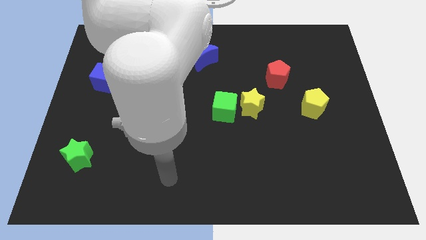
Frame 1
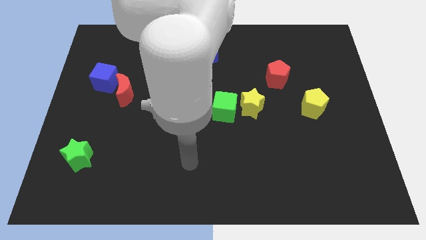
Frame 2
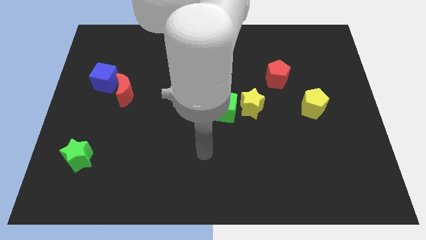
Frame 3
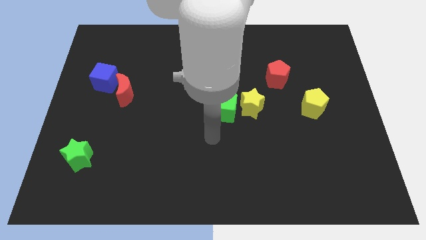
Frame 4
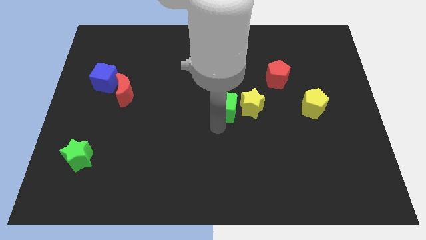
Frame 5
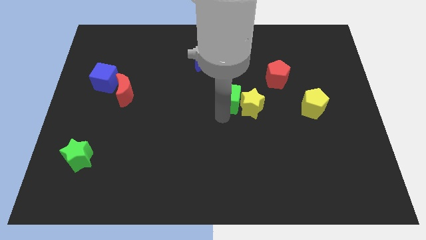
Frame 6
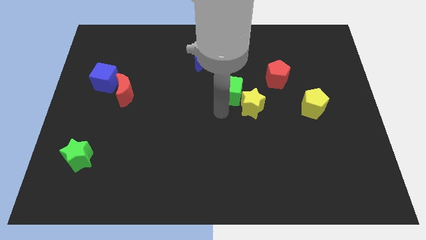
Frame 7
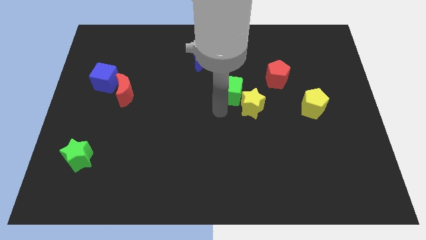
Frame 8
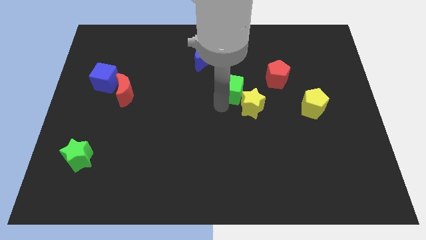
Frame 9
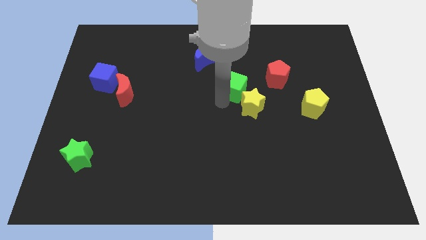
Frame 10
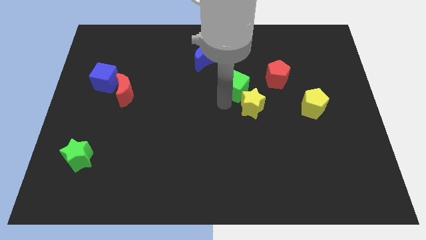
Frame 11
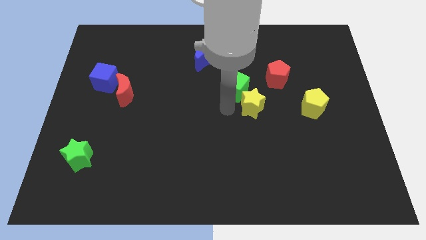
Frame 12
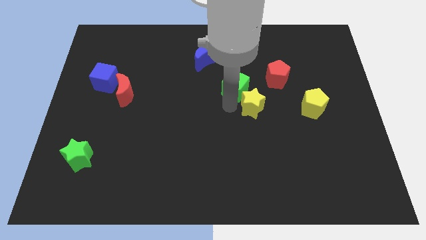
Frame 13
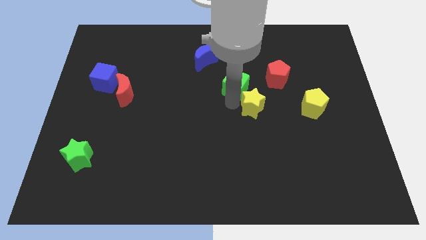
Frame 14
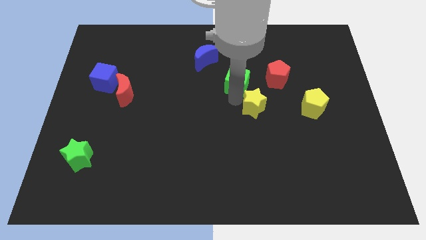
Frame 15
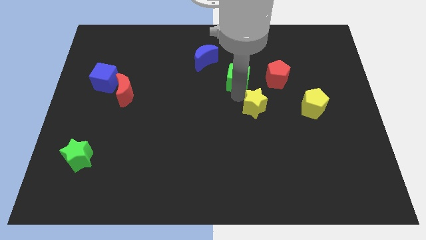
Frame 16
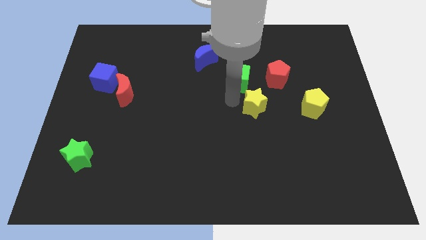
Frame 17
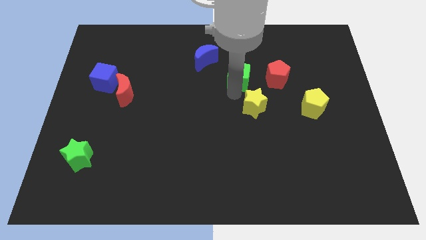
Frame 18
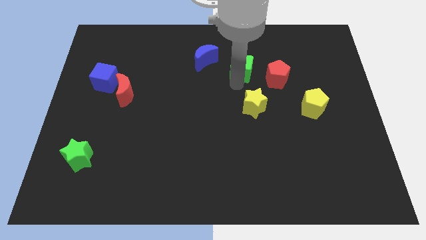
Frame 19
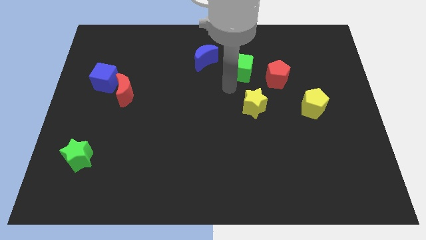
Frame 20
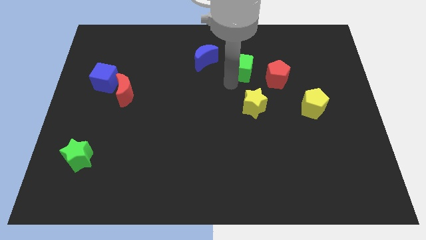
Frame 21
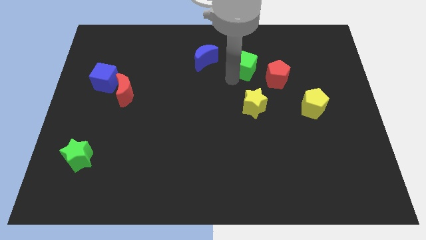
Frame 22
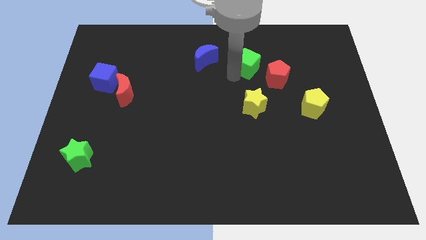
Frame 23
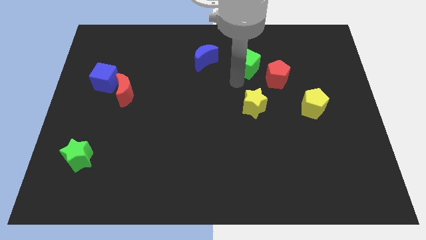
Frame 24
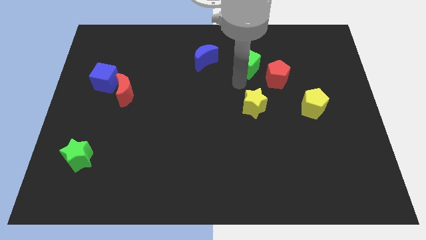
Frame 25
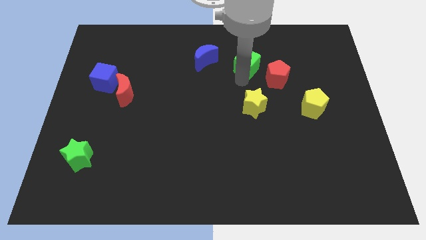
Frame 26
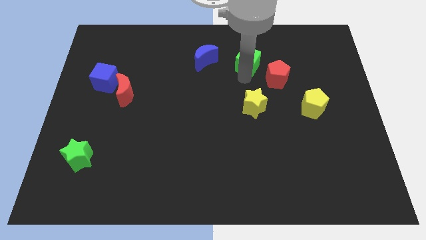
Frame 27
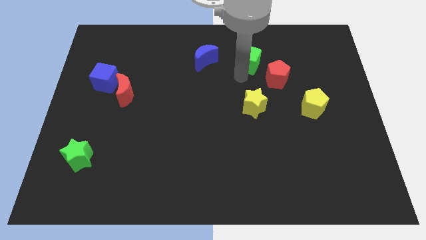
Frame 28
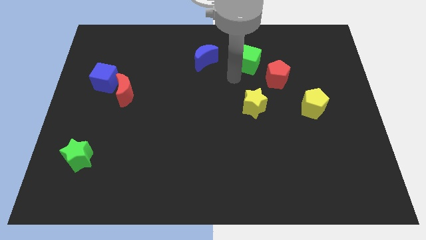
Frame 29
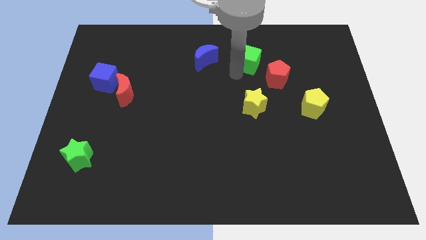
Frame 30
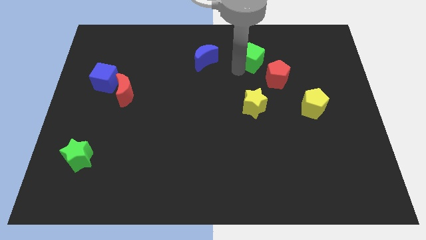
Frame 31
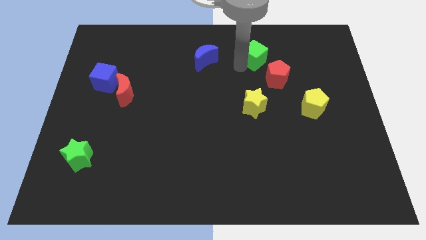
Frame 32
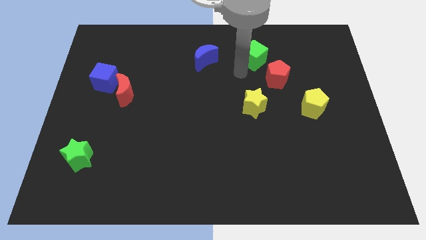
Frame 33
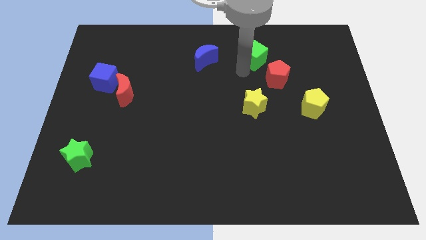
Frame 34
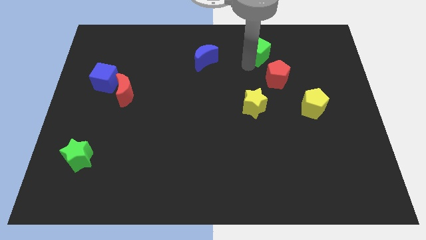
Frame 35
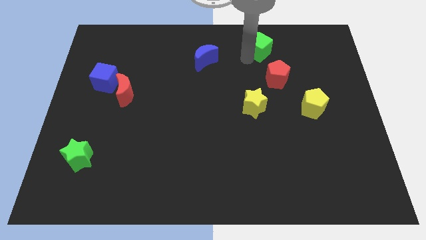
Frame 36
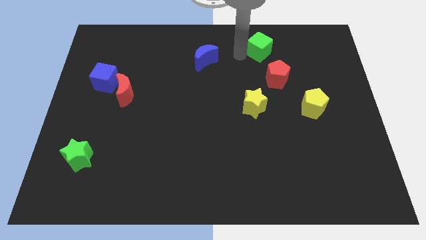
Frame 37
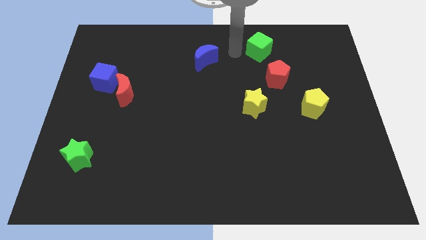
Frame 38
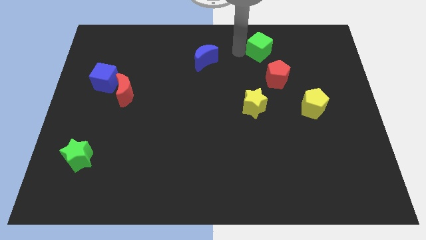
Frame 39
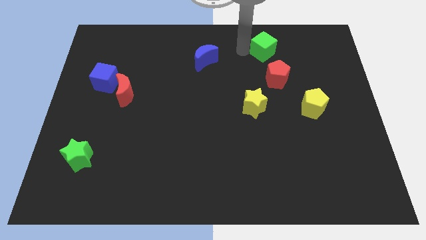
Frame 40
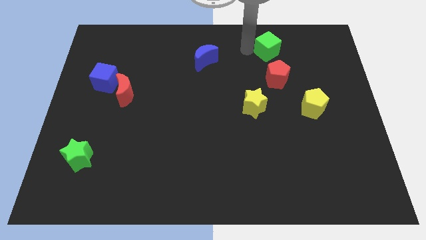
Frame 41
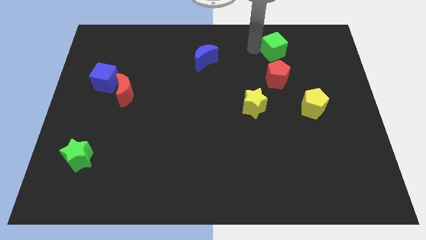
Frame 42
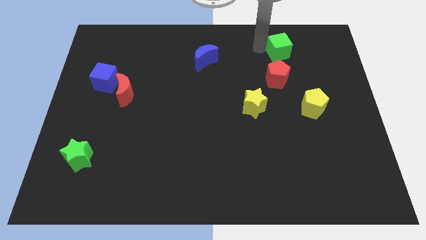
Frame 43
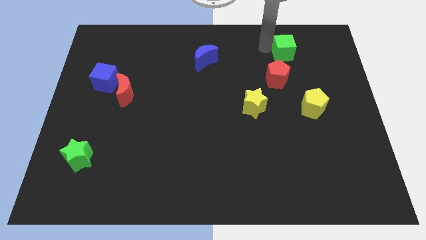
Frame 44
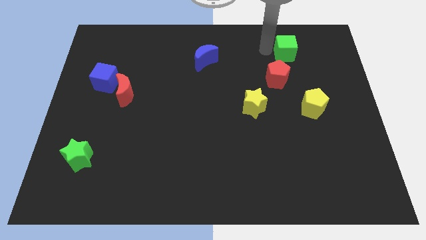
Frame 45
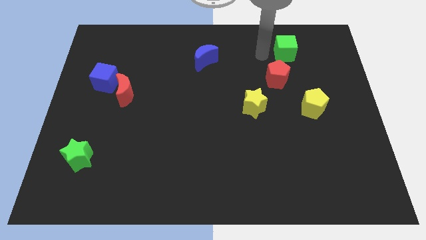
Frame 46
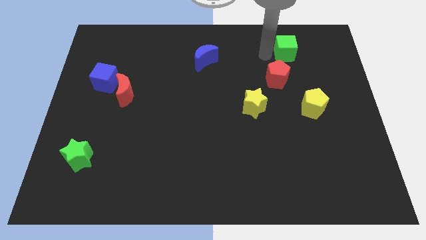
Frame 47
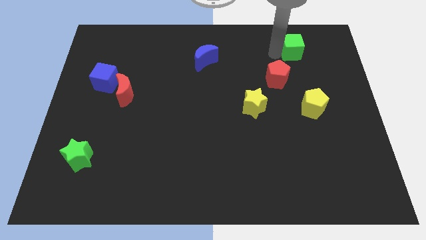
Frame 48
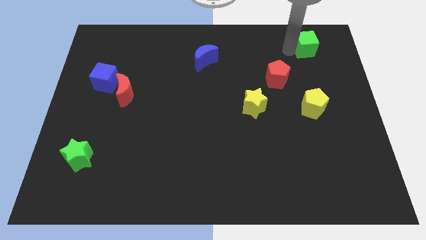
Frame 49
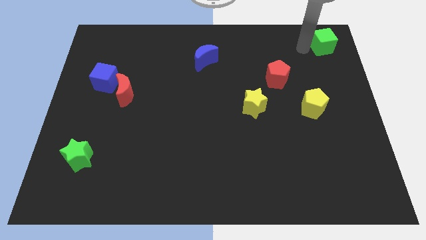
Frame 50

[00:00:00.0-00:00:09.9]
move the green cube to the top right corner

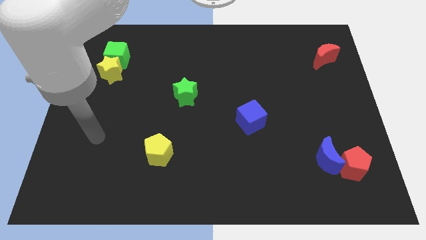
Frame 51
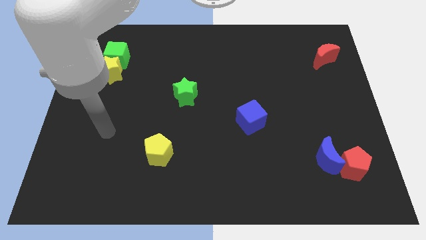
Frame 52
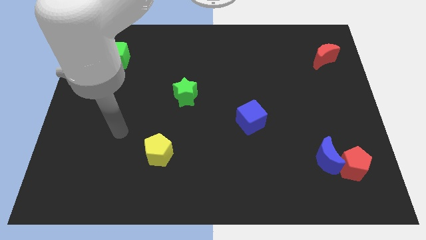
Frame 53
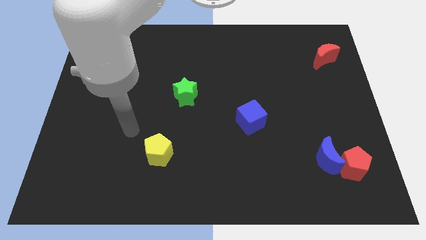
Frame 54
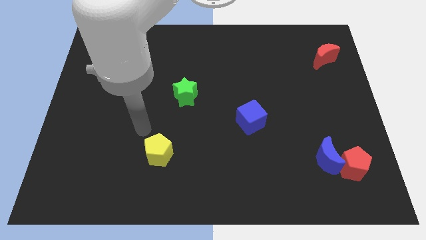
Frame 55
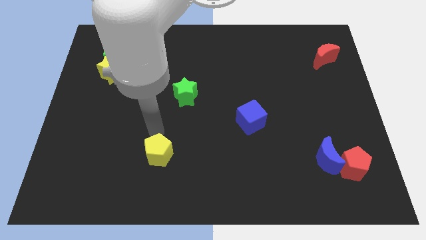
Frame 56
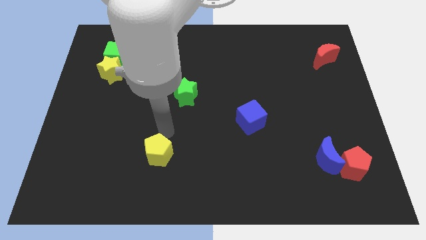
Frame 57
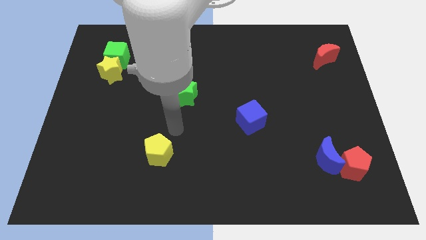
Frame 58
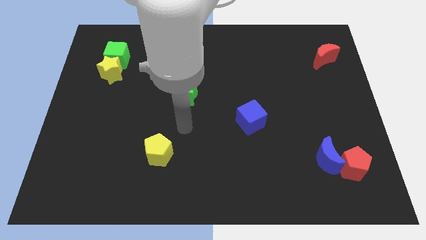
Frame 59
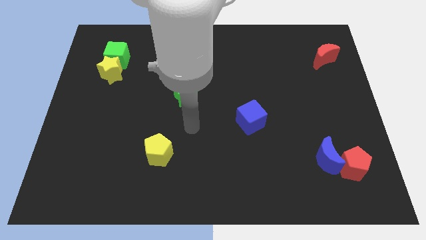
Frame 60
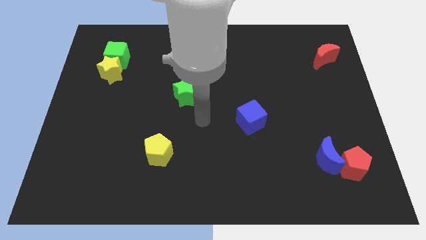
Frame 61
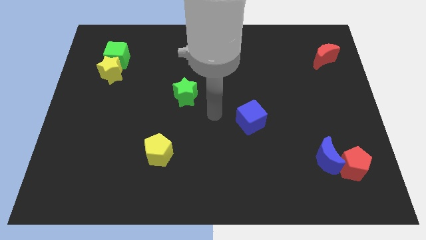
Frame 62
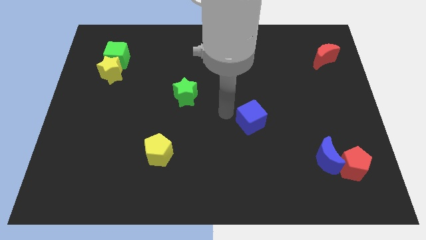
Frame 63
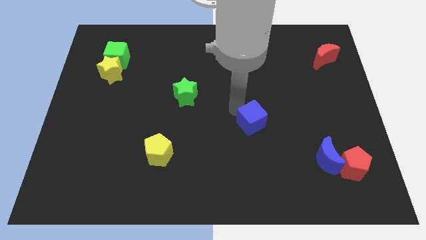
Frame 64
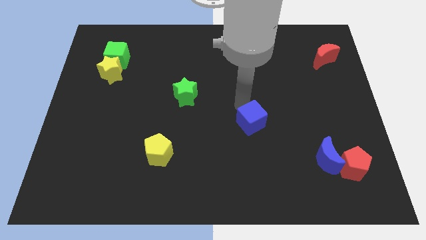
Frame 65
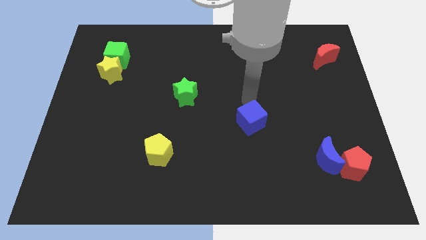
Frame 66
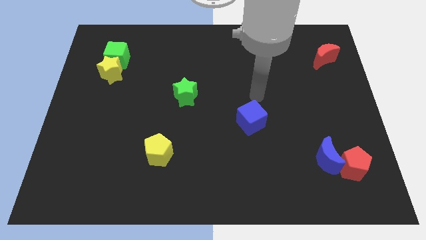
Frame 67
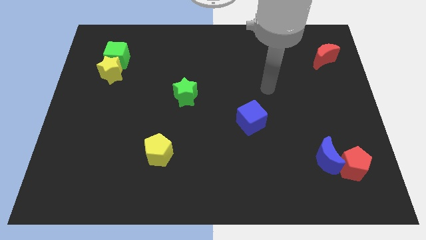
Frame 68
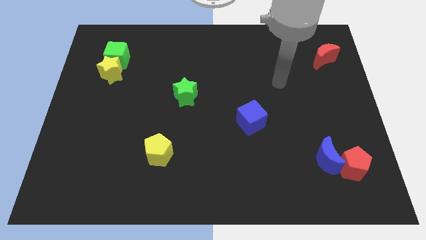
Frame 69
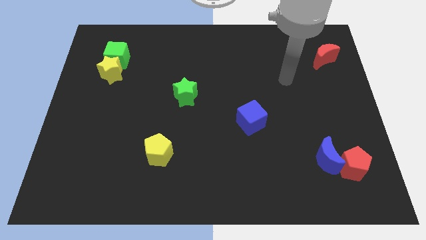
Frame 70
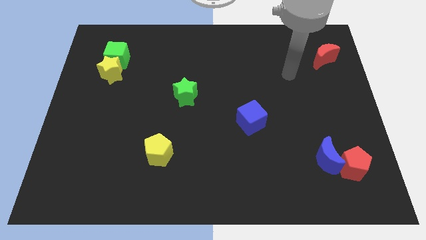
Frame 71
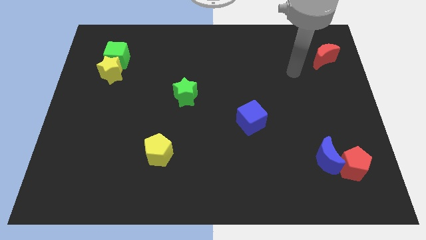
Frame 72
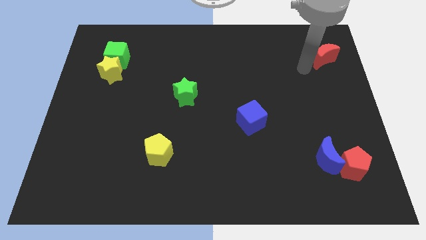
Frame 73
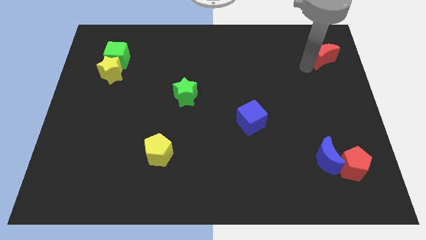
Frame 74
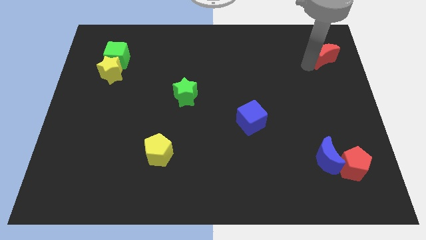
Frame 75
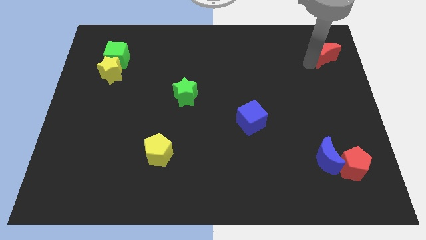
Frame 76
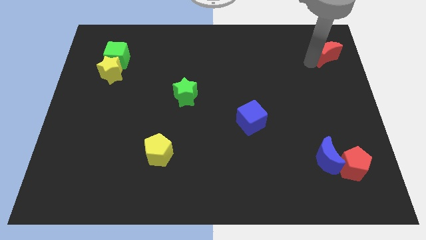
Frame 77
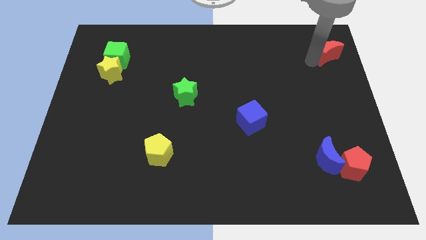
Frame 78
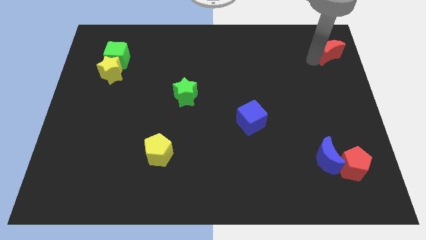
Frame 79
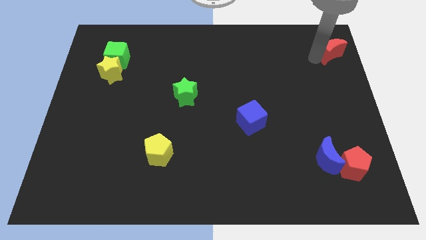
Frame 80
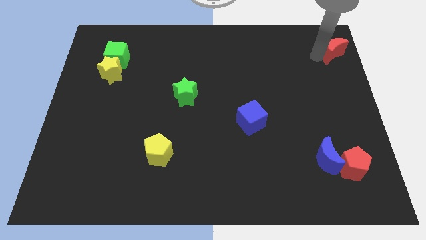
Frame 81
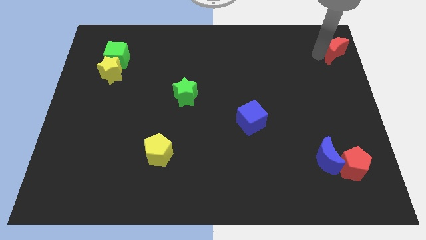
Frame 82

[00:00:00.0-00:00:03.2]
slide the red moon to the top right corner
